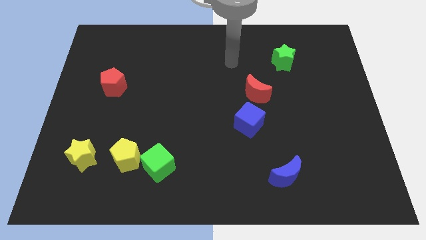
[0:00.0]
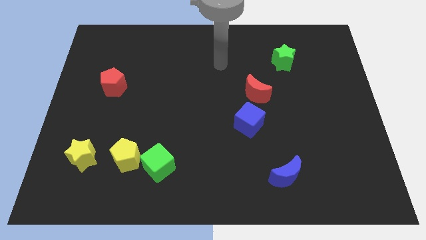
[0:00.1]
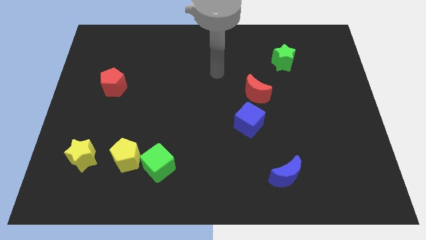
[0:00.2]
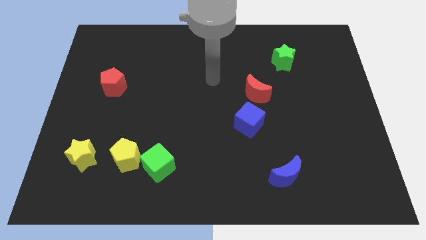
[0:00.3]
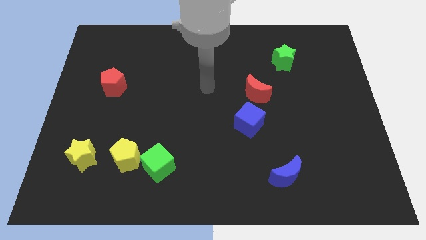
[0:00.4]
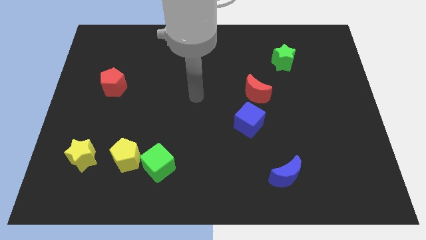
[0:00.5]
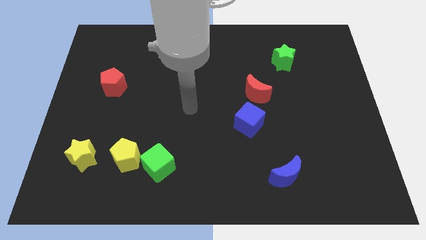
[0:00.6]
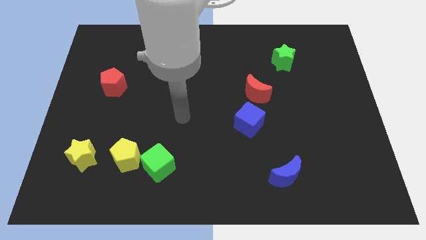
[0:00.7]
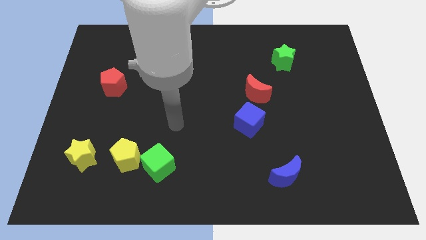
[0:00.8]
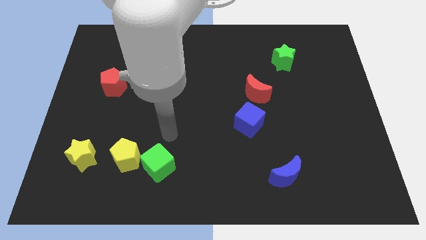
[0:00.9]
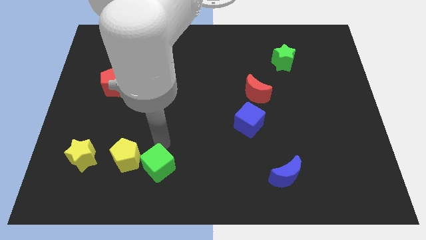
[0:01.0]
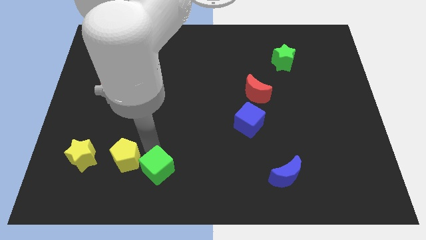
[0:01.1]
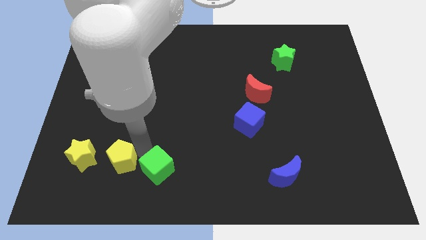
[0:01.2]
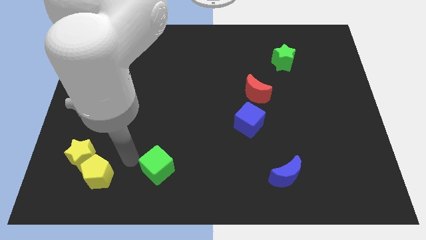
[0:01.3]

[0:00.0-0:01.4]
separate the green cube from the yellow pentagon

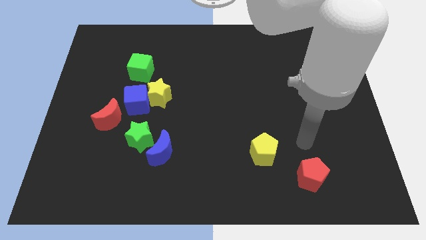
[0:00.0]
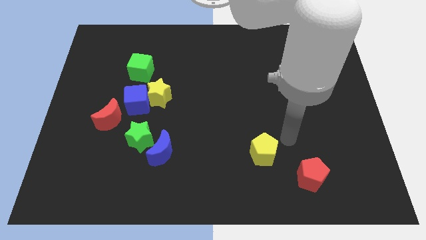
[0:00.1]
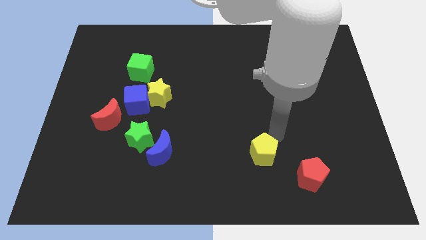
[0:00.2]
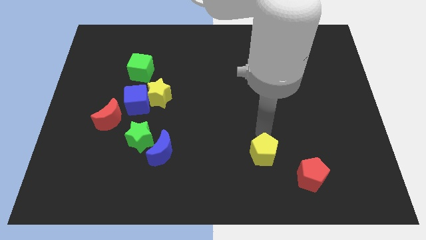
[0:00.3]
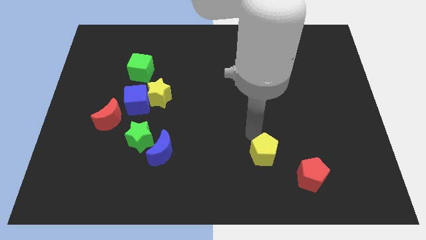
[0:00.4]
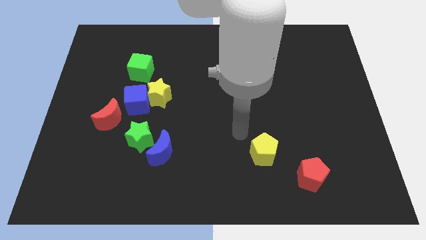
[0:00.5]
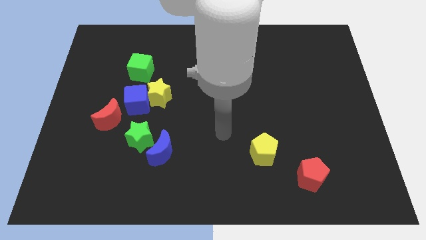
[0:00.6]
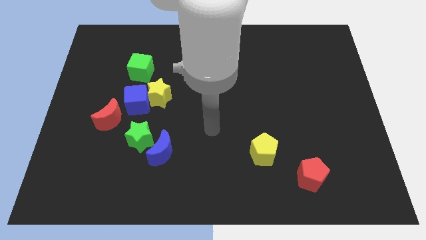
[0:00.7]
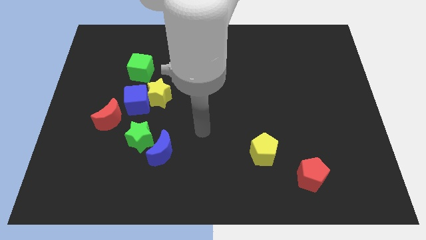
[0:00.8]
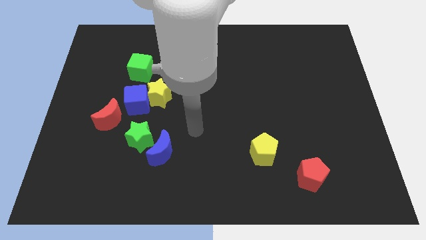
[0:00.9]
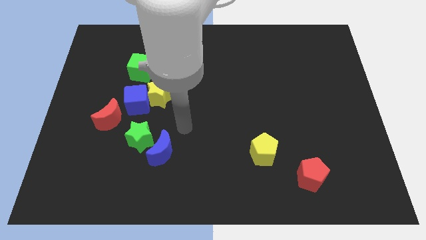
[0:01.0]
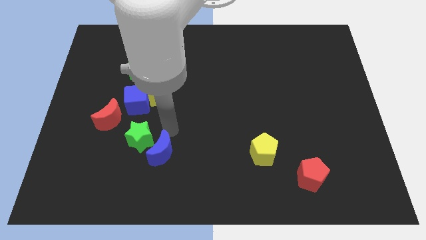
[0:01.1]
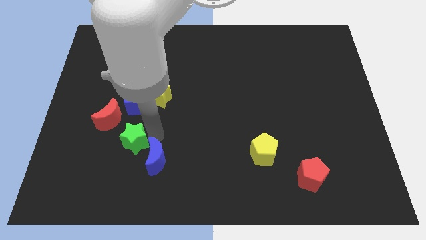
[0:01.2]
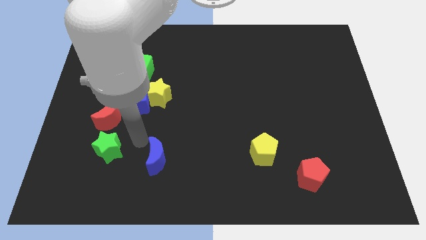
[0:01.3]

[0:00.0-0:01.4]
separate the blue moon from the green star

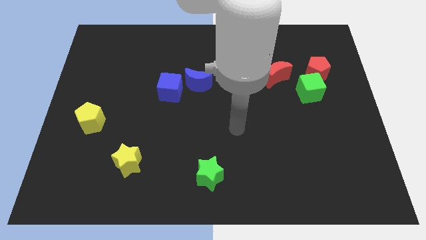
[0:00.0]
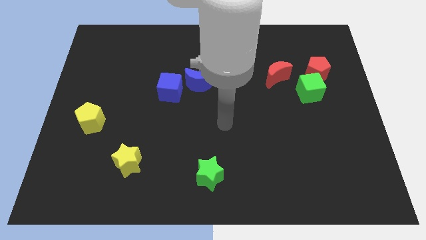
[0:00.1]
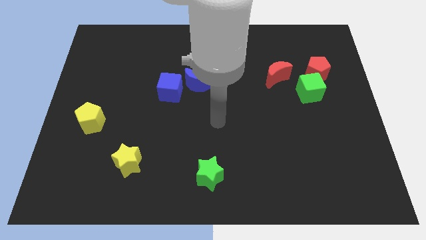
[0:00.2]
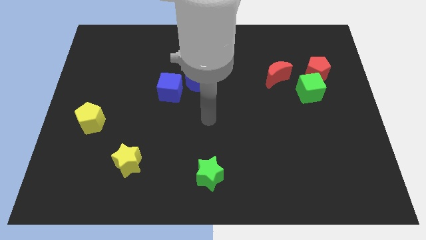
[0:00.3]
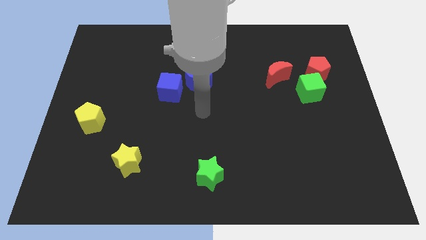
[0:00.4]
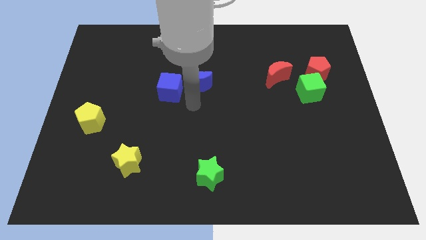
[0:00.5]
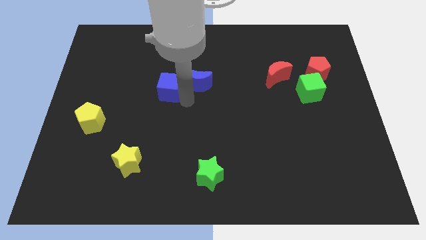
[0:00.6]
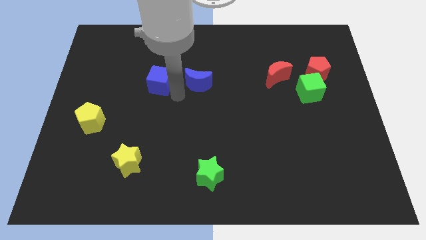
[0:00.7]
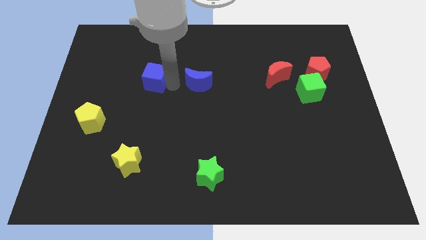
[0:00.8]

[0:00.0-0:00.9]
move the blue moon away from the blue cube

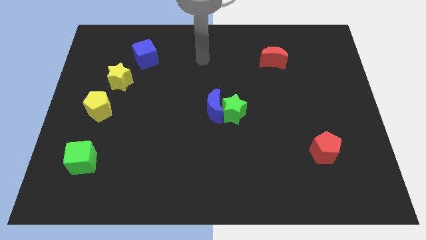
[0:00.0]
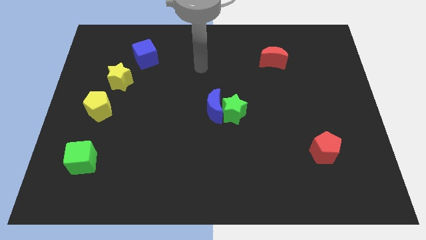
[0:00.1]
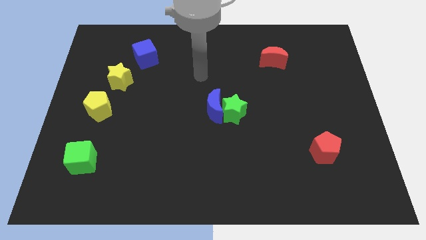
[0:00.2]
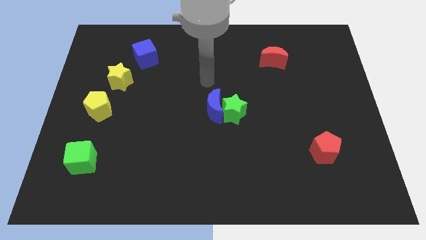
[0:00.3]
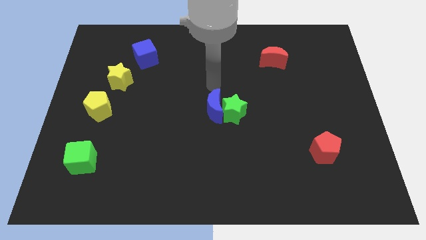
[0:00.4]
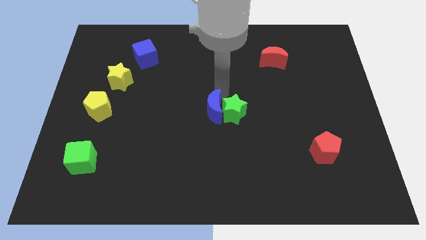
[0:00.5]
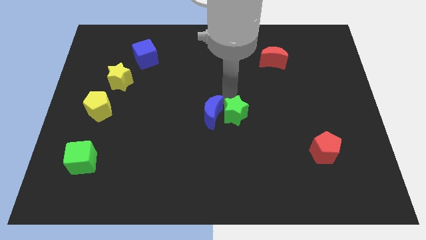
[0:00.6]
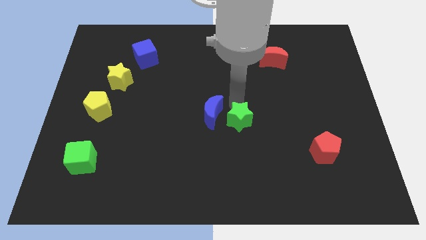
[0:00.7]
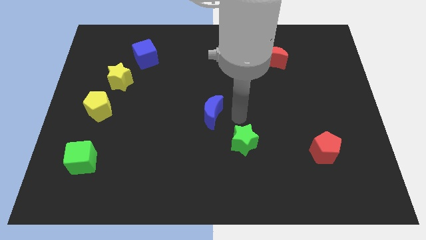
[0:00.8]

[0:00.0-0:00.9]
pull the blue moon apart from the green star

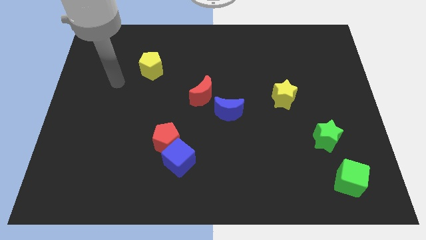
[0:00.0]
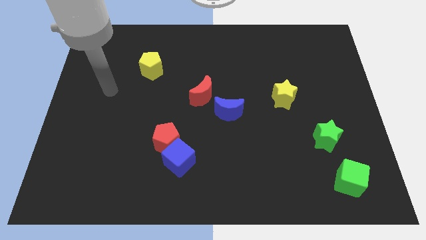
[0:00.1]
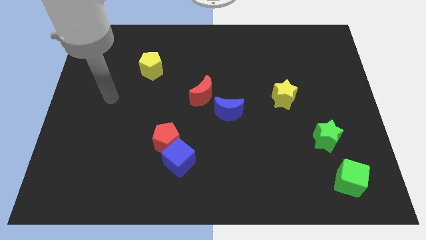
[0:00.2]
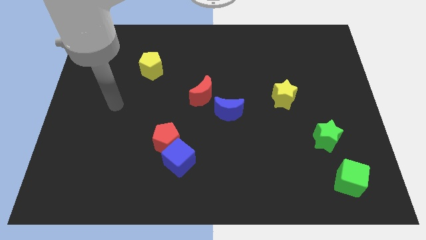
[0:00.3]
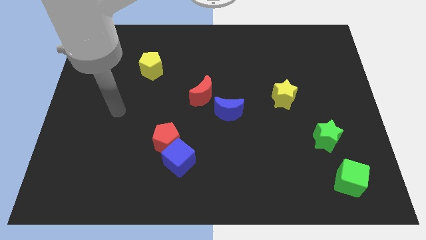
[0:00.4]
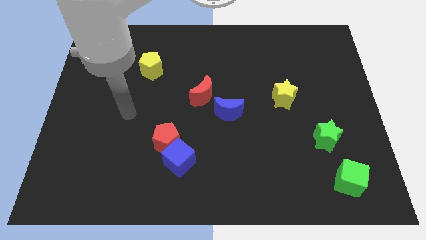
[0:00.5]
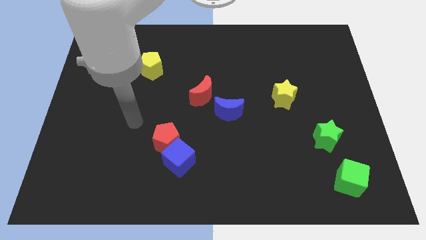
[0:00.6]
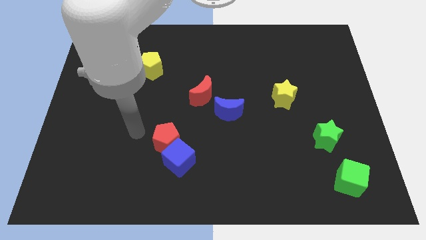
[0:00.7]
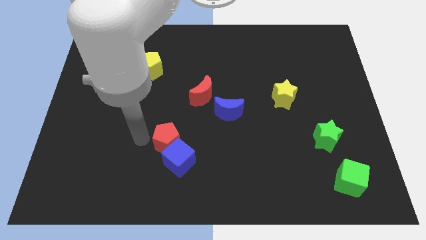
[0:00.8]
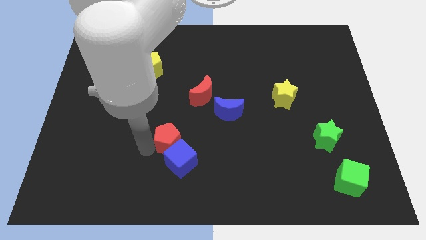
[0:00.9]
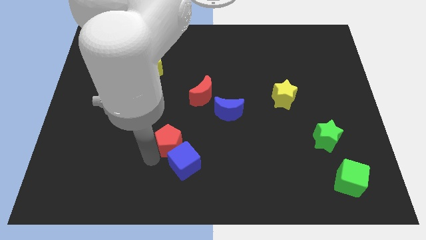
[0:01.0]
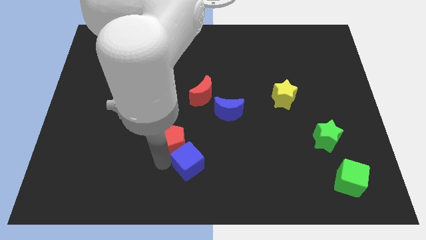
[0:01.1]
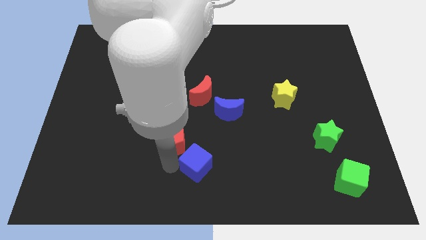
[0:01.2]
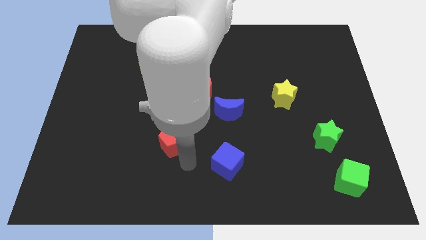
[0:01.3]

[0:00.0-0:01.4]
move the red pentagon away from the blue cube

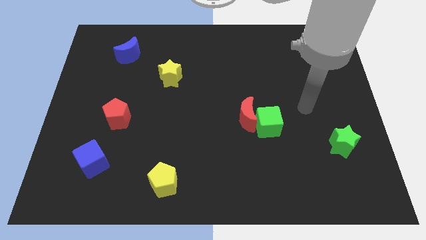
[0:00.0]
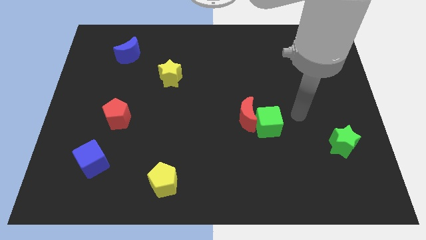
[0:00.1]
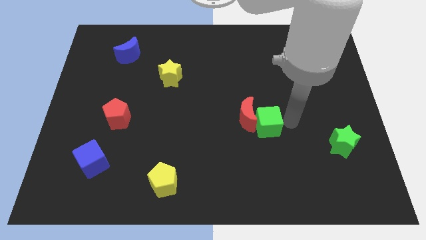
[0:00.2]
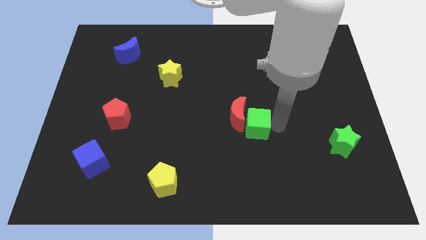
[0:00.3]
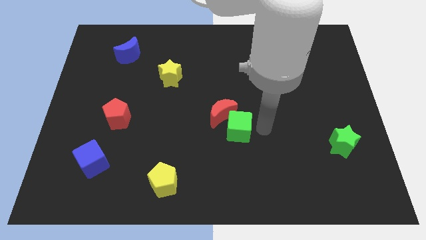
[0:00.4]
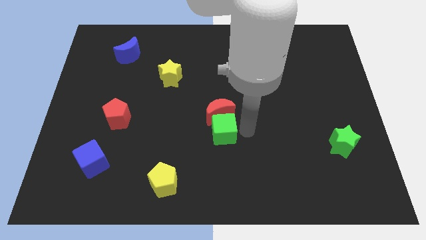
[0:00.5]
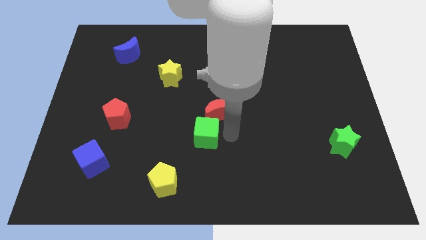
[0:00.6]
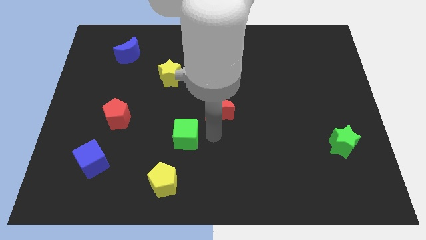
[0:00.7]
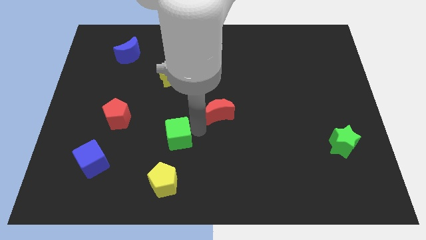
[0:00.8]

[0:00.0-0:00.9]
pull the red moon apart from the green cube

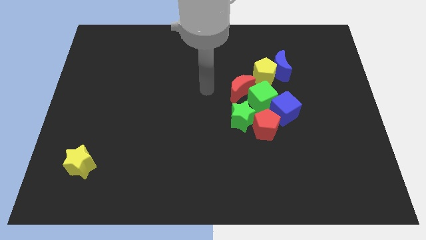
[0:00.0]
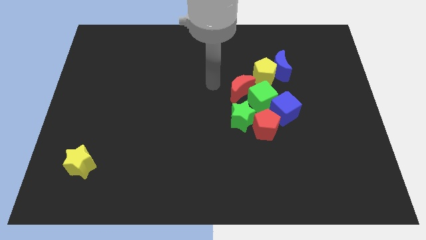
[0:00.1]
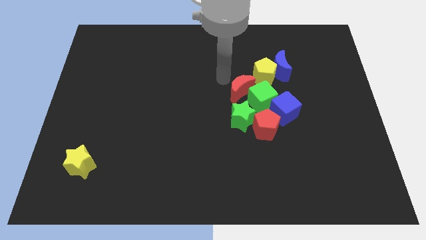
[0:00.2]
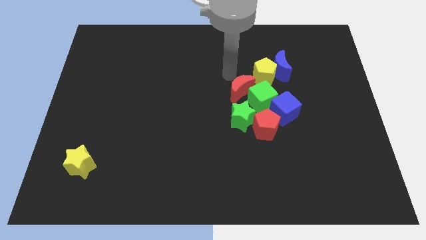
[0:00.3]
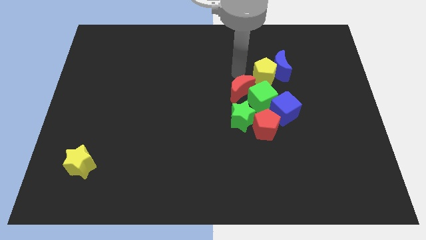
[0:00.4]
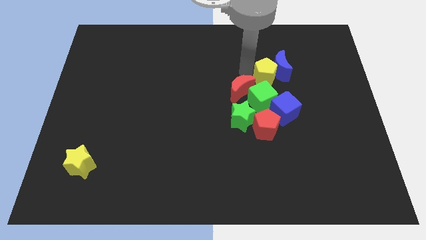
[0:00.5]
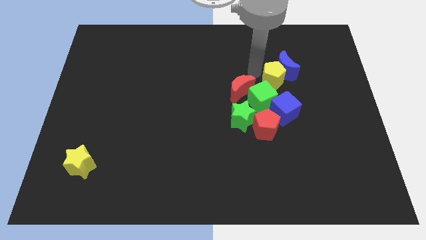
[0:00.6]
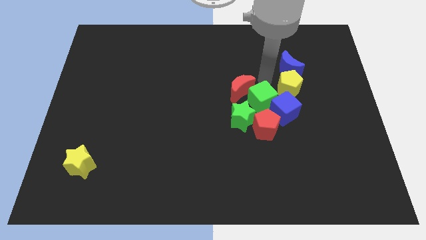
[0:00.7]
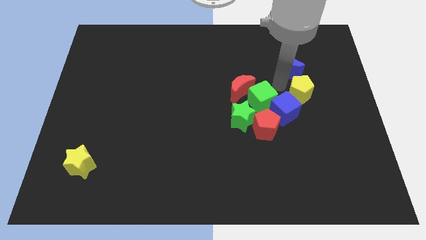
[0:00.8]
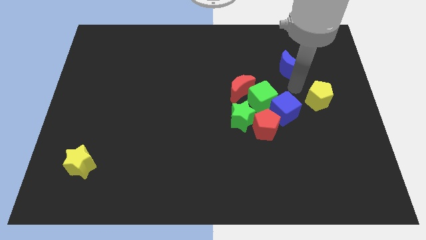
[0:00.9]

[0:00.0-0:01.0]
separate the blue moon from the yellow pentagon

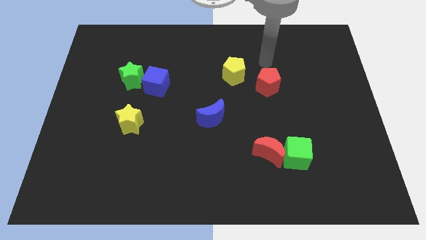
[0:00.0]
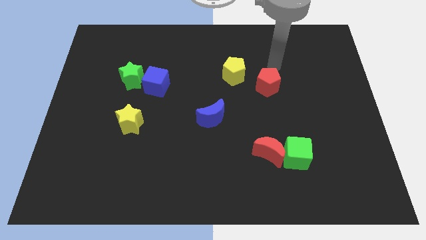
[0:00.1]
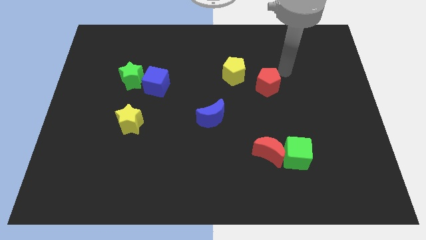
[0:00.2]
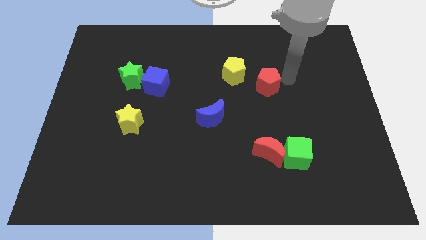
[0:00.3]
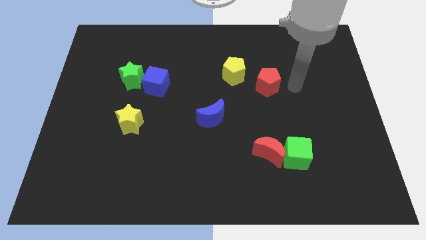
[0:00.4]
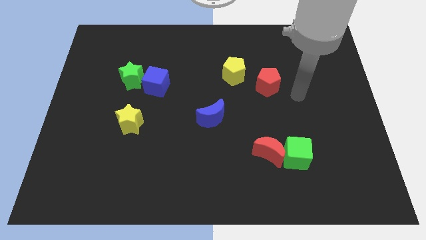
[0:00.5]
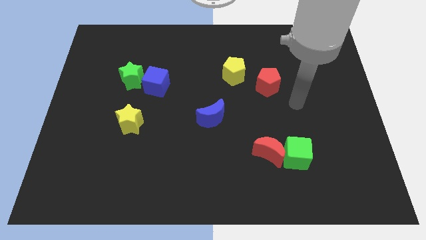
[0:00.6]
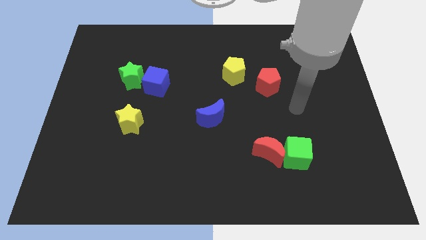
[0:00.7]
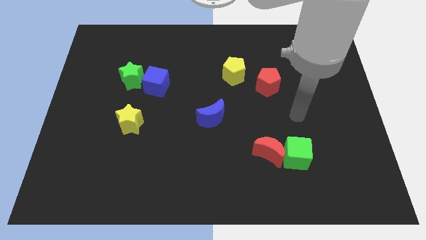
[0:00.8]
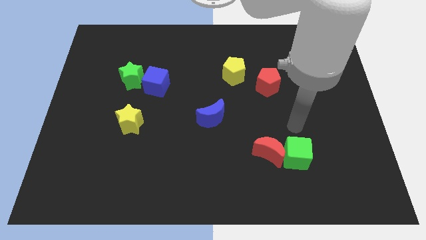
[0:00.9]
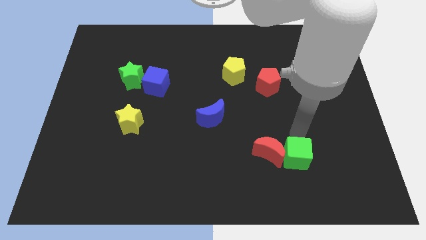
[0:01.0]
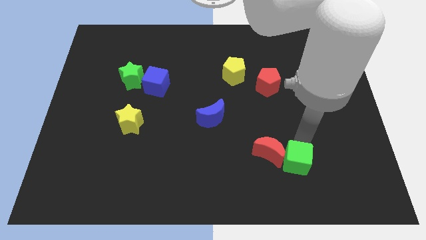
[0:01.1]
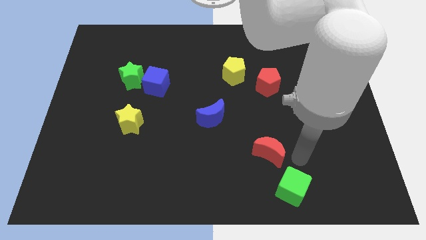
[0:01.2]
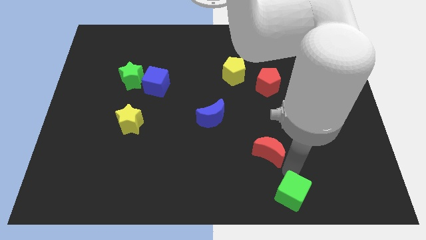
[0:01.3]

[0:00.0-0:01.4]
move the red moon away from the green cube

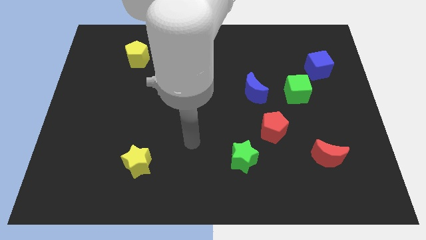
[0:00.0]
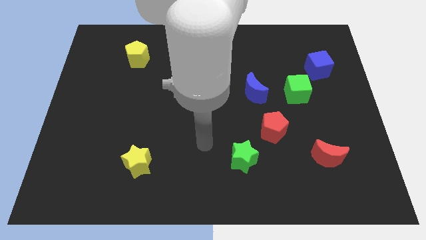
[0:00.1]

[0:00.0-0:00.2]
move the red pentagon away from the green star
